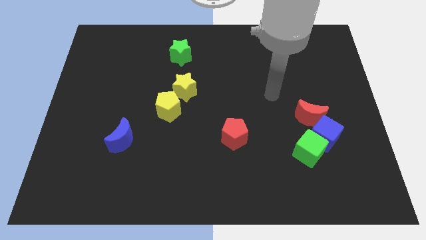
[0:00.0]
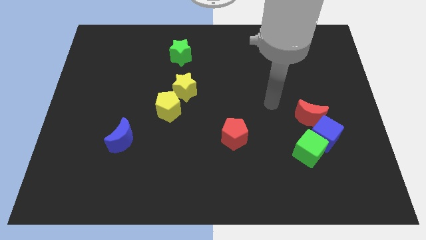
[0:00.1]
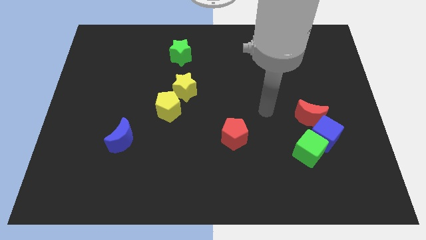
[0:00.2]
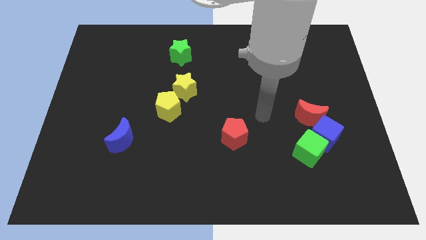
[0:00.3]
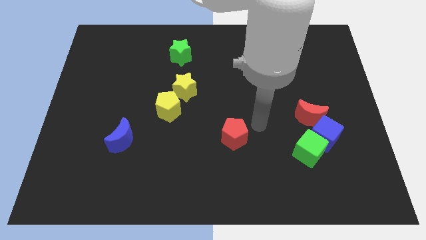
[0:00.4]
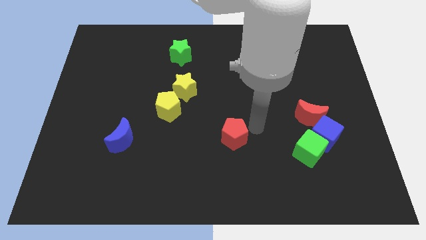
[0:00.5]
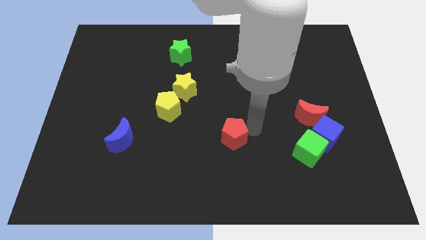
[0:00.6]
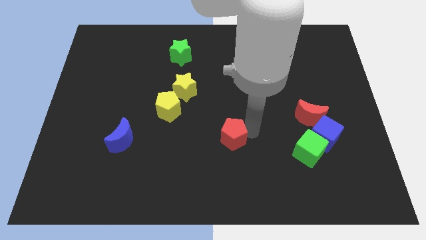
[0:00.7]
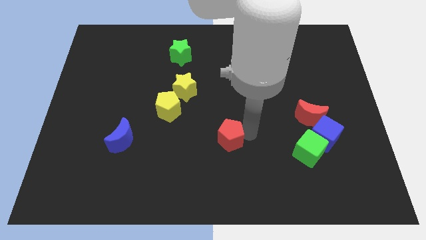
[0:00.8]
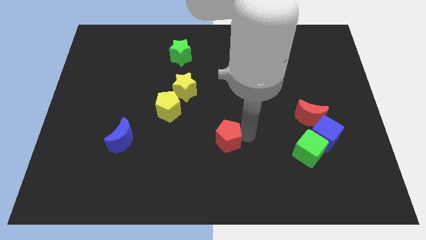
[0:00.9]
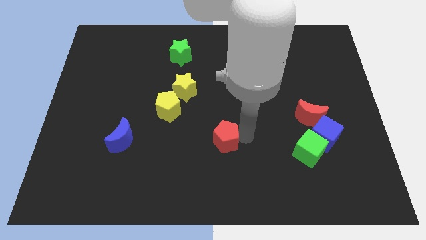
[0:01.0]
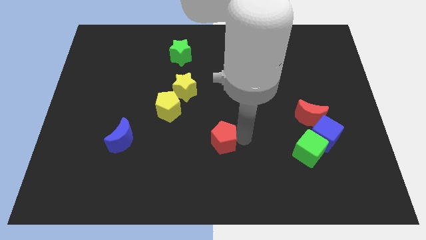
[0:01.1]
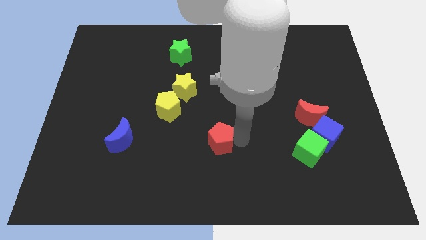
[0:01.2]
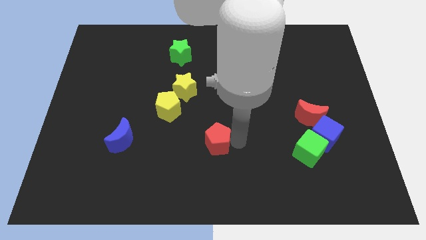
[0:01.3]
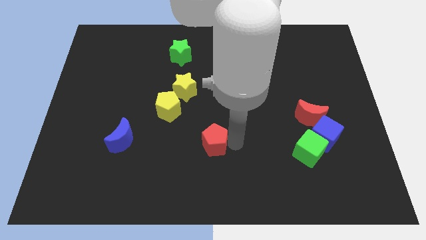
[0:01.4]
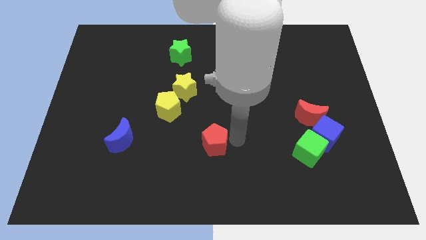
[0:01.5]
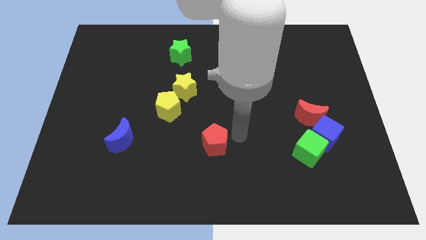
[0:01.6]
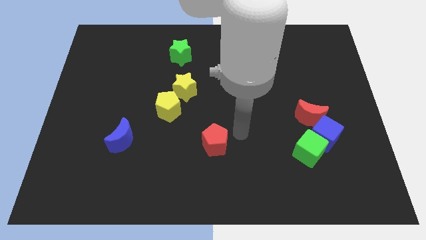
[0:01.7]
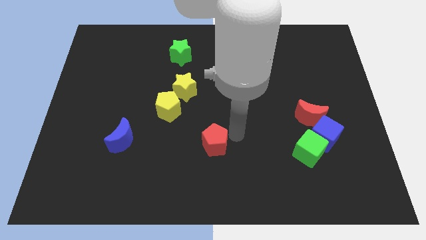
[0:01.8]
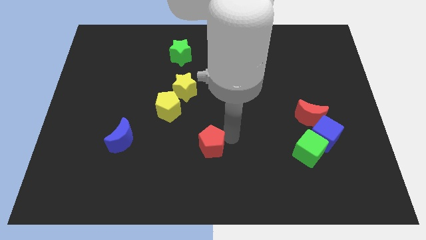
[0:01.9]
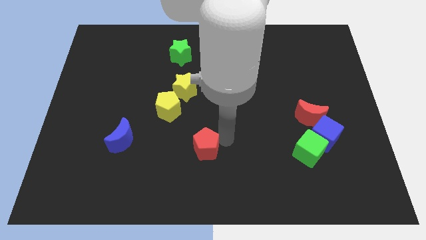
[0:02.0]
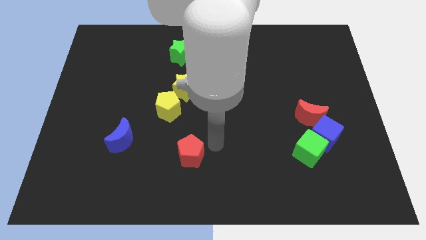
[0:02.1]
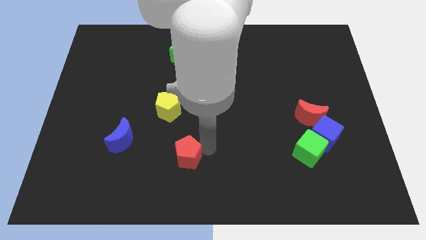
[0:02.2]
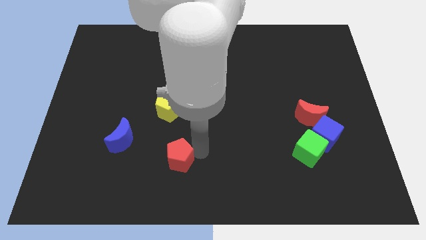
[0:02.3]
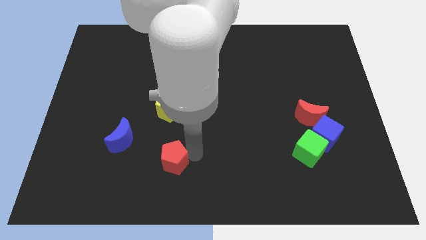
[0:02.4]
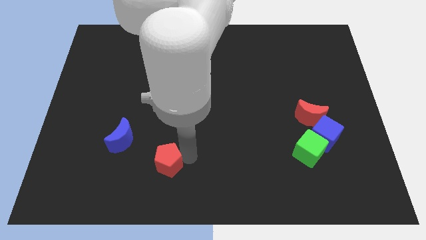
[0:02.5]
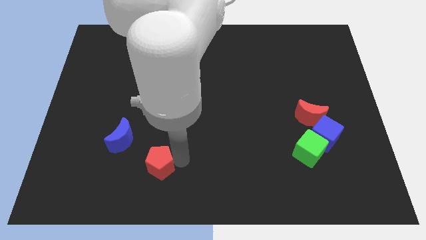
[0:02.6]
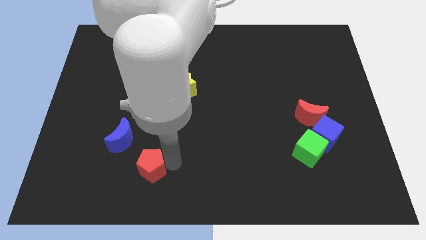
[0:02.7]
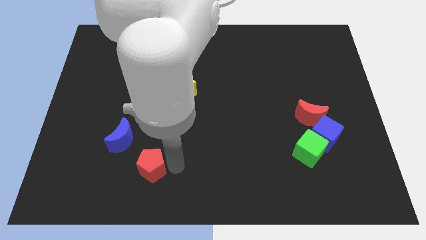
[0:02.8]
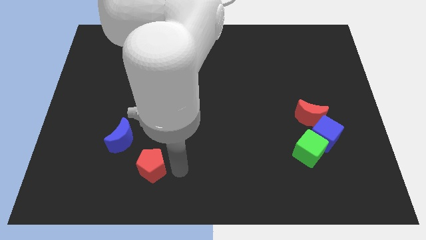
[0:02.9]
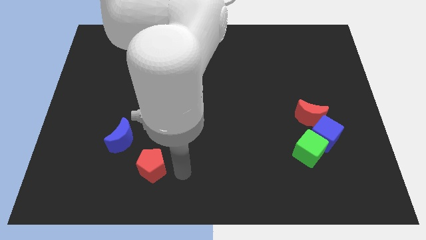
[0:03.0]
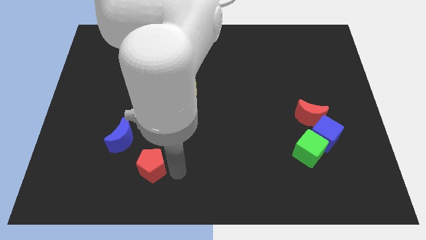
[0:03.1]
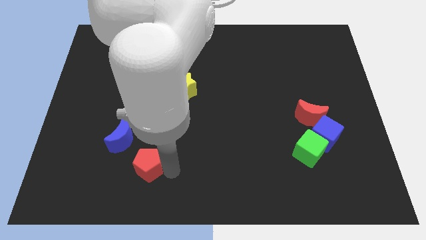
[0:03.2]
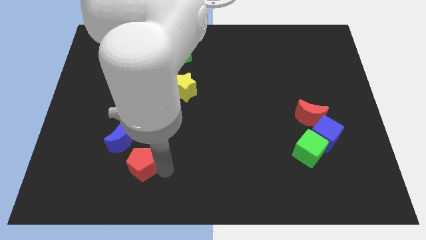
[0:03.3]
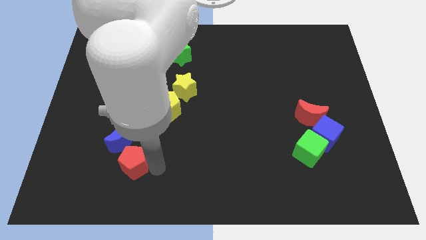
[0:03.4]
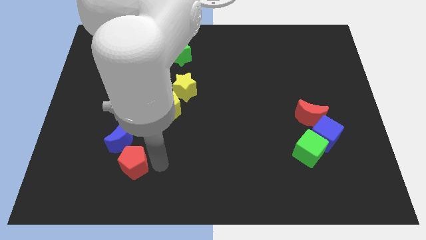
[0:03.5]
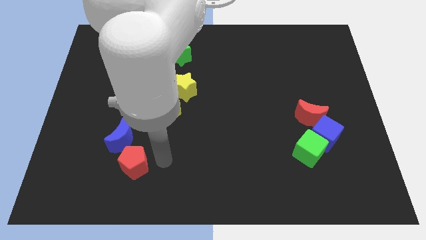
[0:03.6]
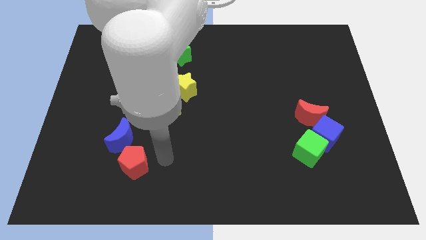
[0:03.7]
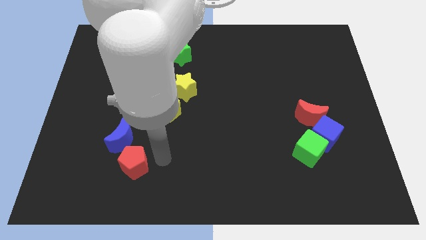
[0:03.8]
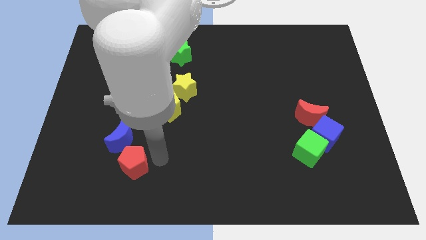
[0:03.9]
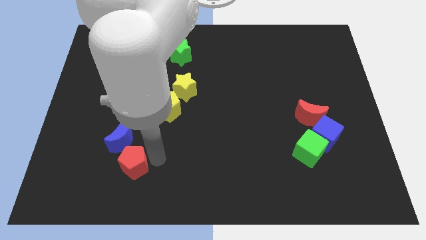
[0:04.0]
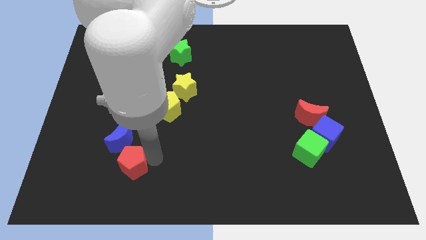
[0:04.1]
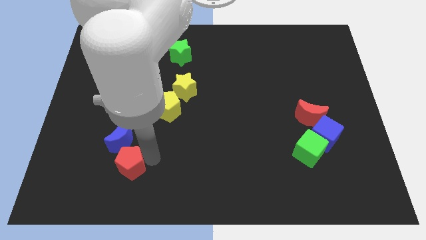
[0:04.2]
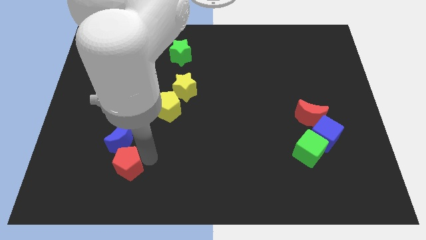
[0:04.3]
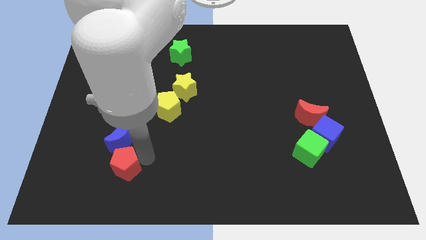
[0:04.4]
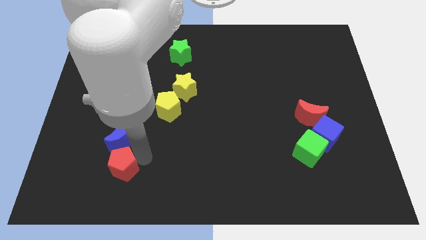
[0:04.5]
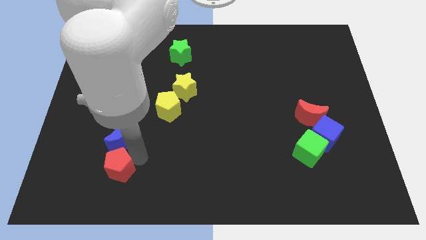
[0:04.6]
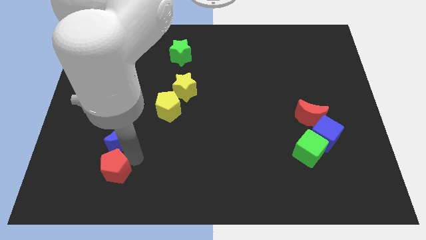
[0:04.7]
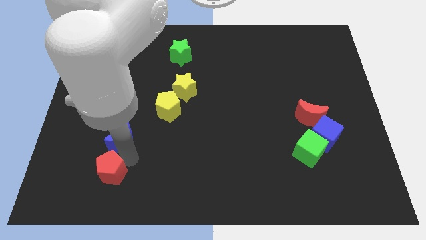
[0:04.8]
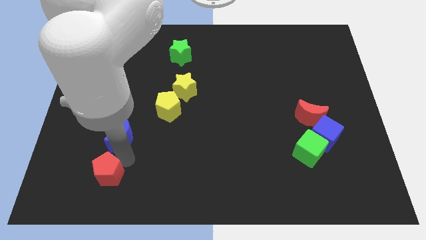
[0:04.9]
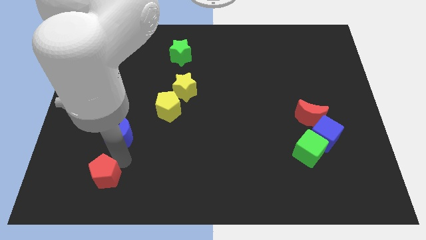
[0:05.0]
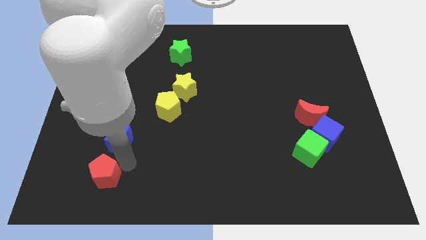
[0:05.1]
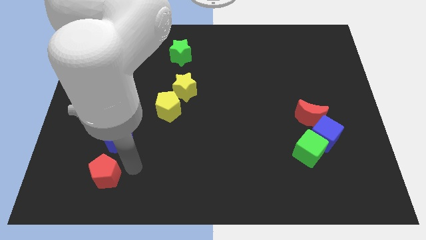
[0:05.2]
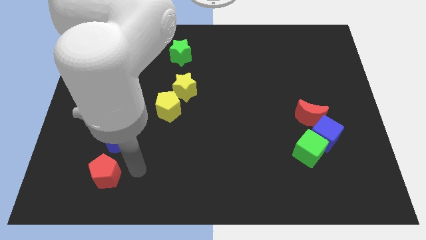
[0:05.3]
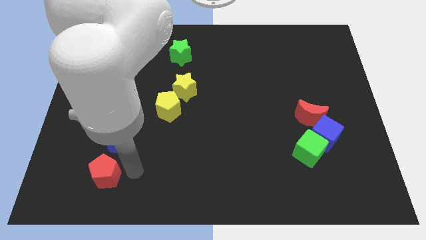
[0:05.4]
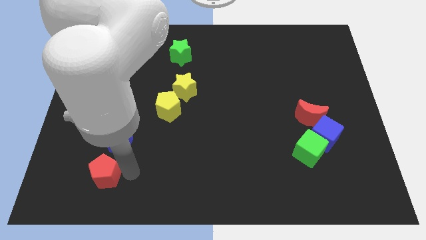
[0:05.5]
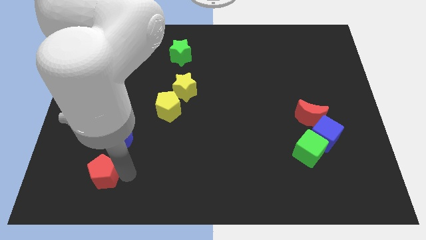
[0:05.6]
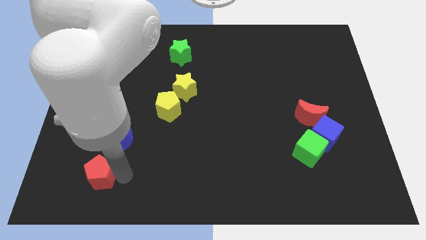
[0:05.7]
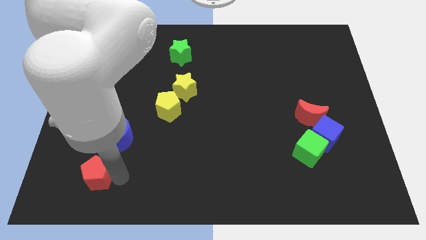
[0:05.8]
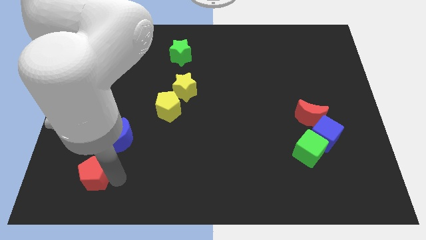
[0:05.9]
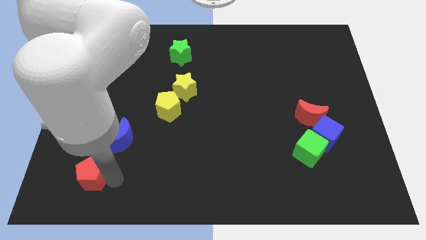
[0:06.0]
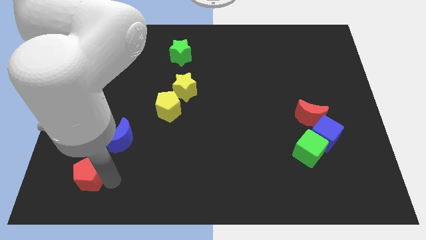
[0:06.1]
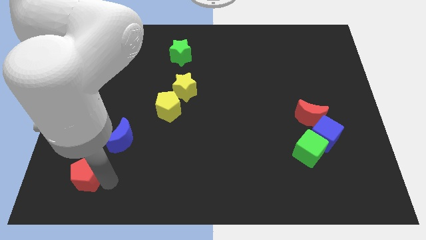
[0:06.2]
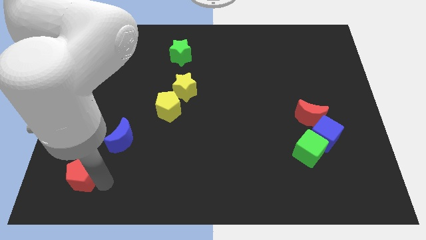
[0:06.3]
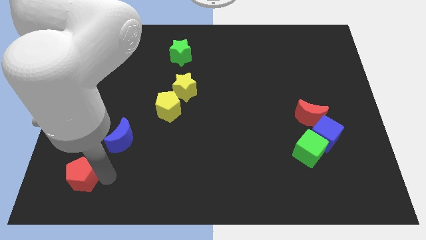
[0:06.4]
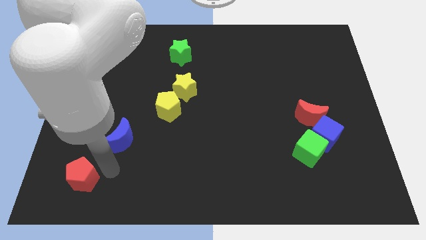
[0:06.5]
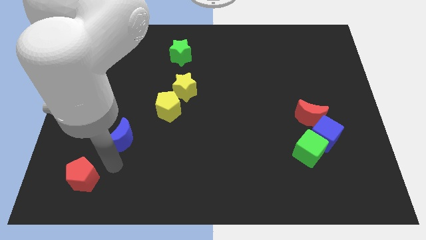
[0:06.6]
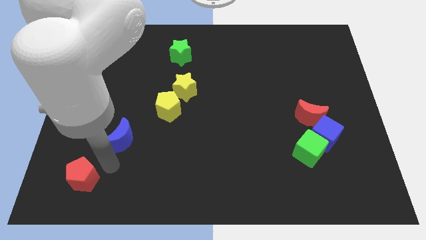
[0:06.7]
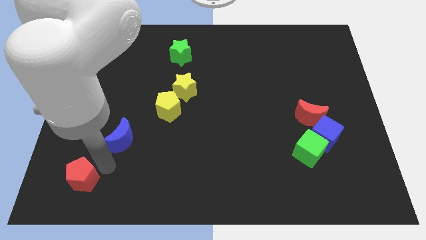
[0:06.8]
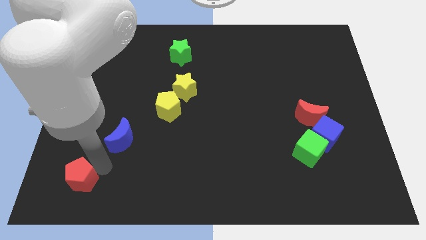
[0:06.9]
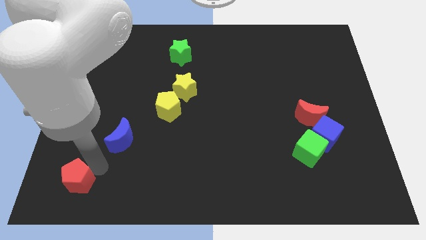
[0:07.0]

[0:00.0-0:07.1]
push the red pentagon to the lower left corner
